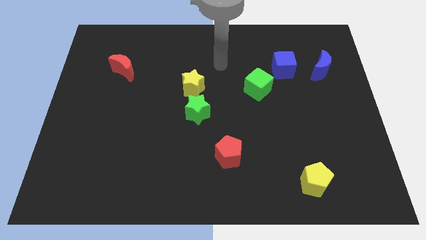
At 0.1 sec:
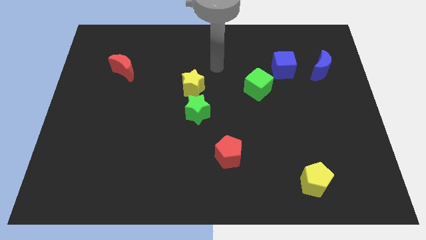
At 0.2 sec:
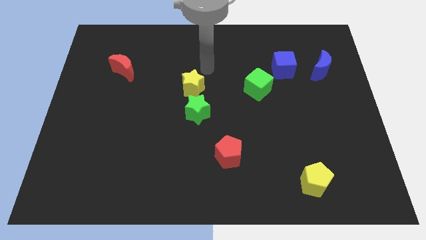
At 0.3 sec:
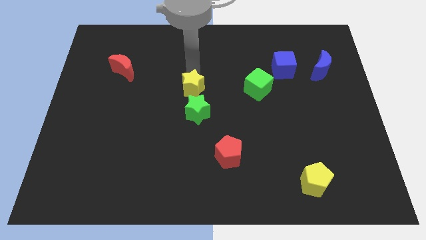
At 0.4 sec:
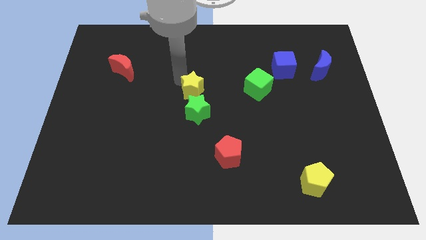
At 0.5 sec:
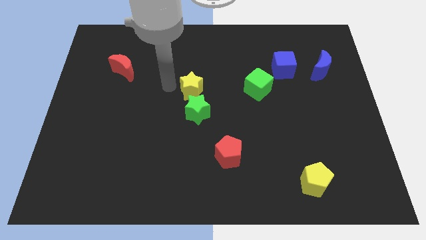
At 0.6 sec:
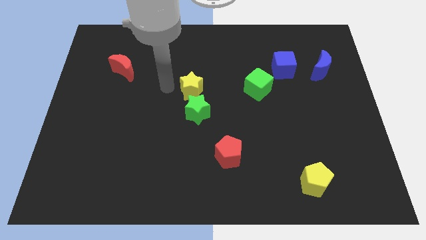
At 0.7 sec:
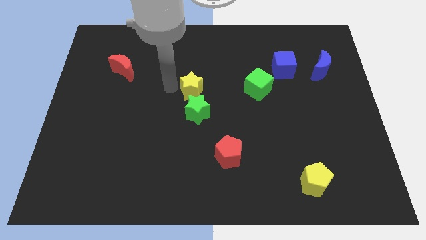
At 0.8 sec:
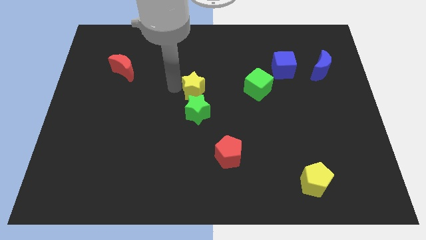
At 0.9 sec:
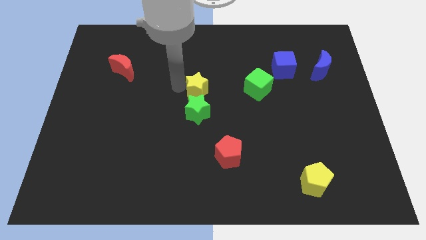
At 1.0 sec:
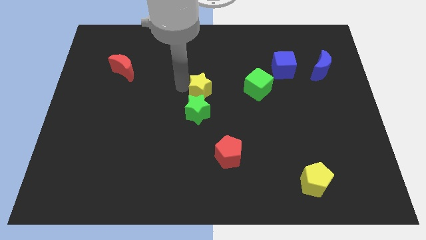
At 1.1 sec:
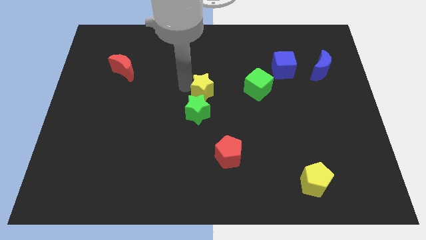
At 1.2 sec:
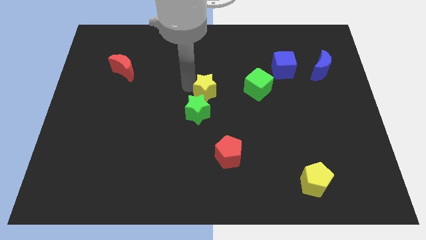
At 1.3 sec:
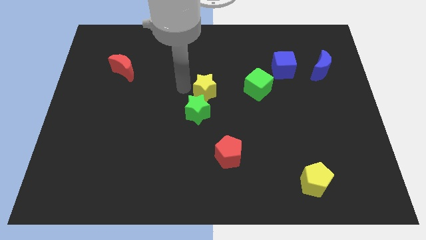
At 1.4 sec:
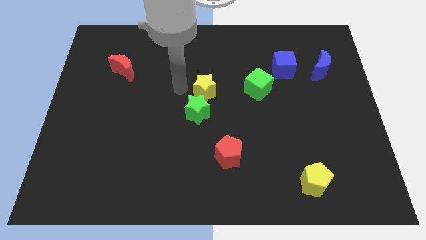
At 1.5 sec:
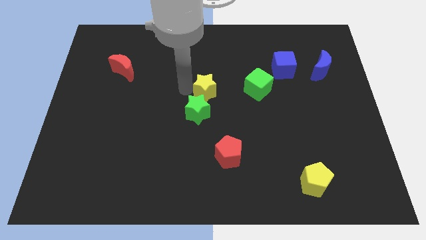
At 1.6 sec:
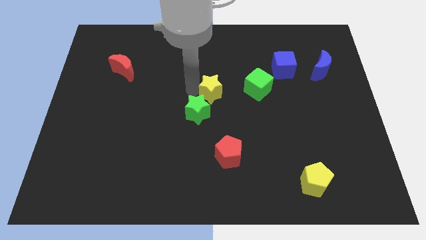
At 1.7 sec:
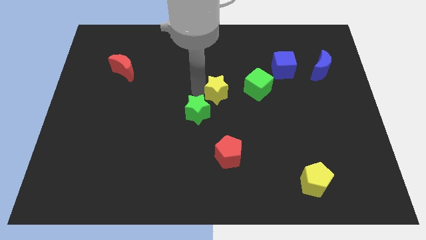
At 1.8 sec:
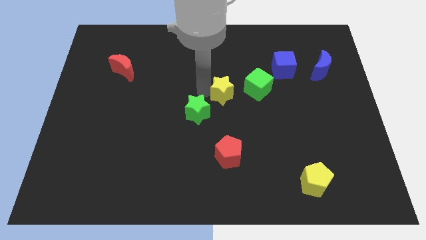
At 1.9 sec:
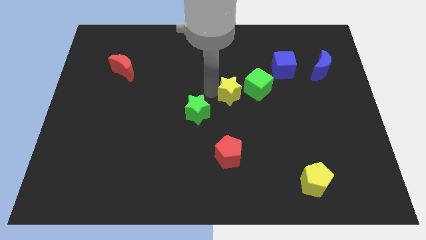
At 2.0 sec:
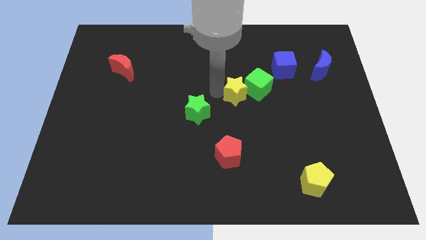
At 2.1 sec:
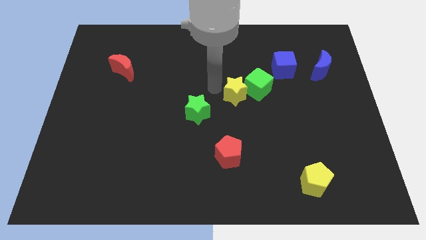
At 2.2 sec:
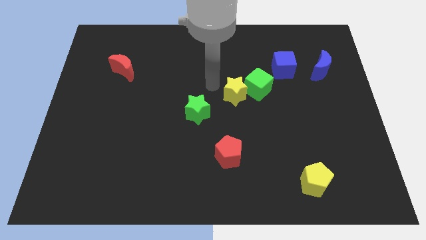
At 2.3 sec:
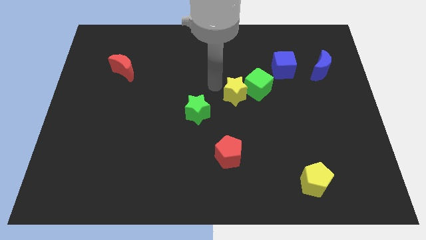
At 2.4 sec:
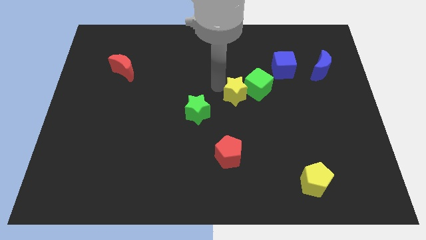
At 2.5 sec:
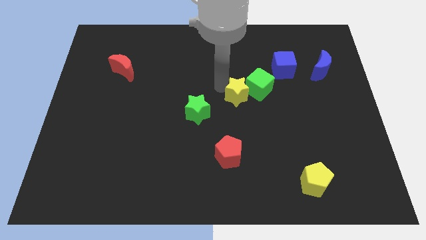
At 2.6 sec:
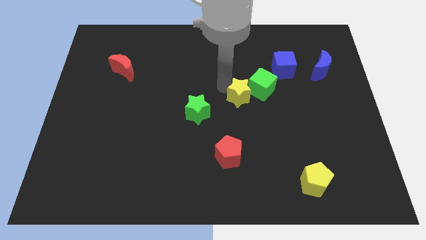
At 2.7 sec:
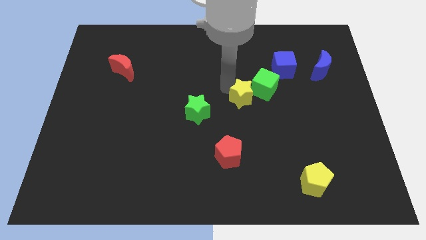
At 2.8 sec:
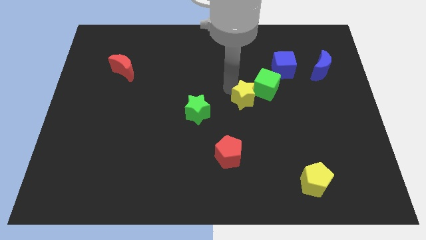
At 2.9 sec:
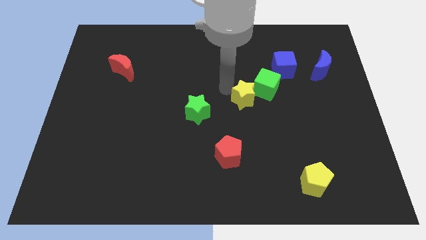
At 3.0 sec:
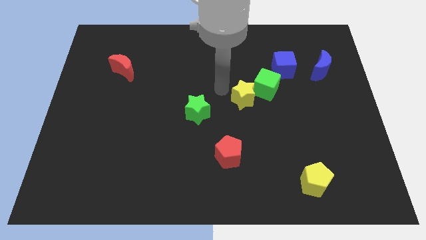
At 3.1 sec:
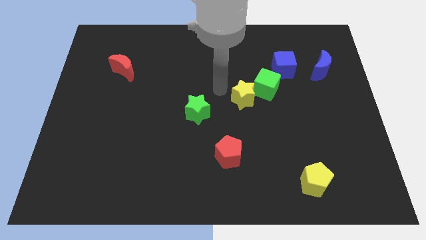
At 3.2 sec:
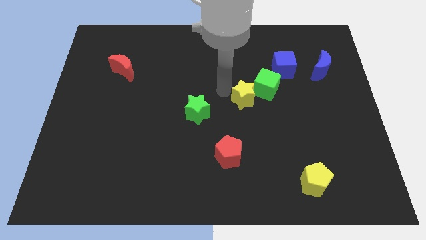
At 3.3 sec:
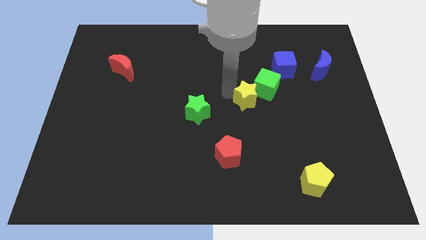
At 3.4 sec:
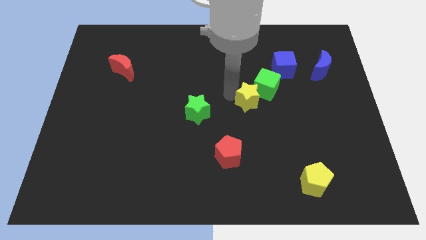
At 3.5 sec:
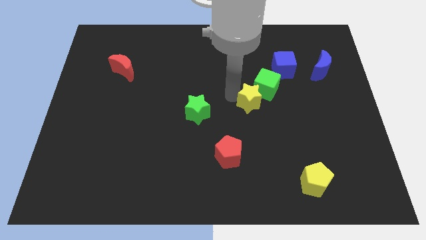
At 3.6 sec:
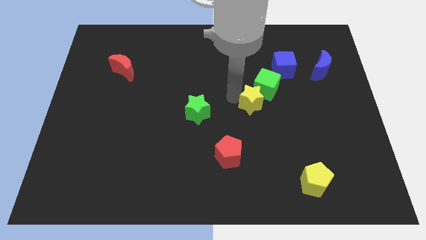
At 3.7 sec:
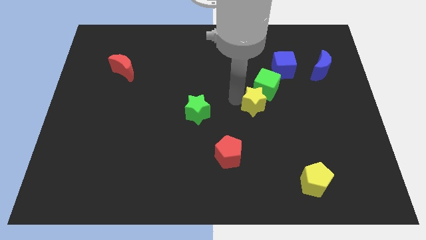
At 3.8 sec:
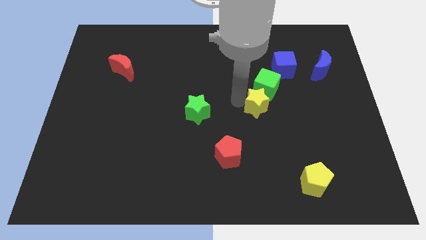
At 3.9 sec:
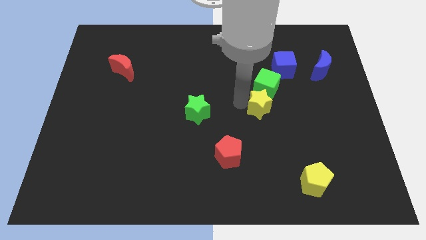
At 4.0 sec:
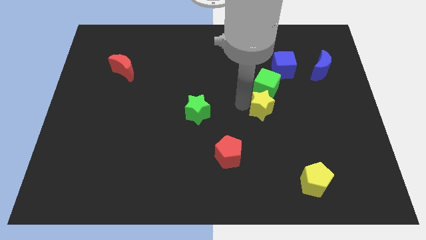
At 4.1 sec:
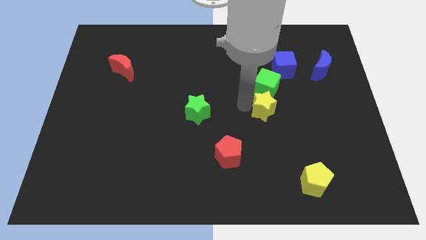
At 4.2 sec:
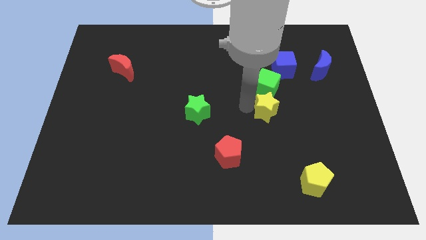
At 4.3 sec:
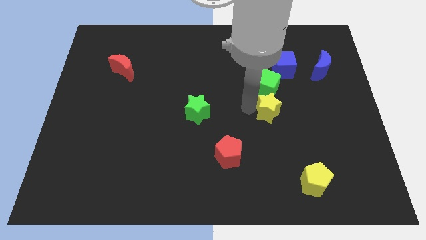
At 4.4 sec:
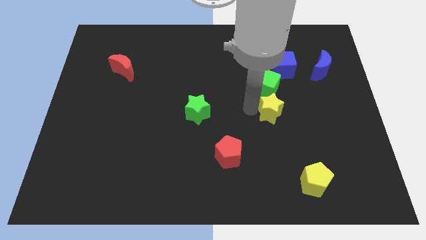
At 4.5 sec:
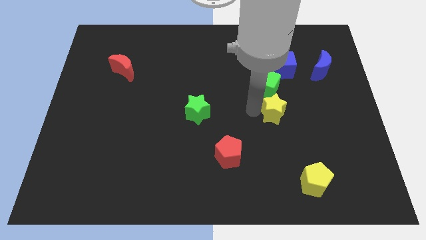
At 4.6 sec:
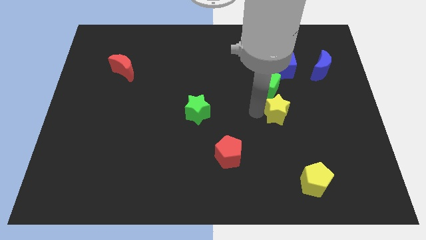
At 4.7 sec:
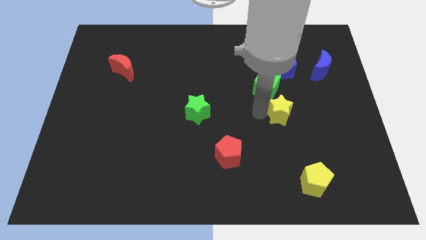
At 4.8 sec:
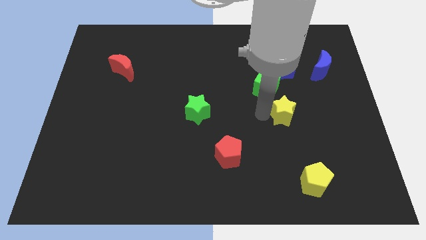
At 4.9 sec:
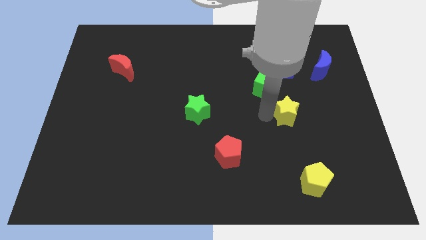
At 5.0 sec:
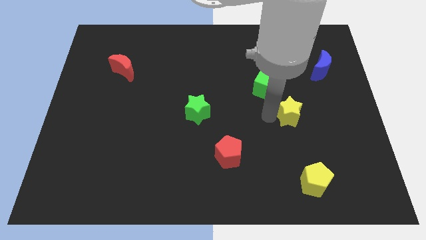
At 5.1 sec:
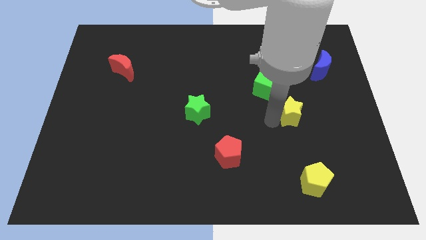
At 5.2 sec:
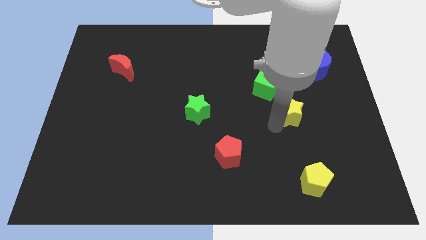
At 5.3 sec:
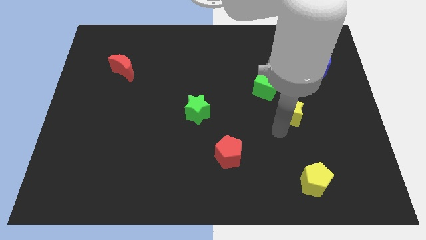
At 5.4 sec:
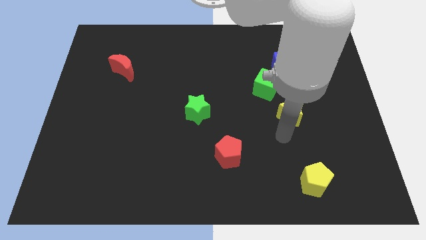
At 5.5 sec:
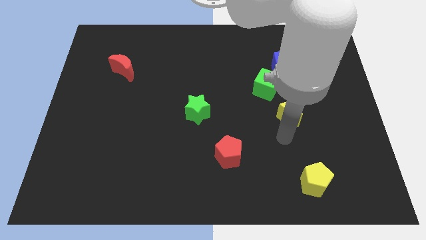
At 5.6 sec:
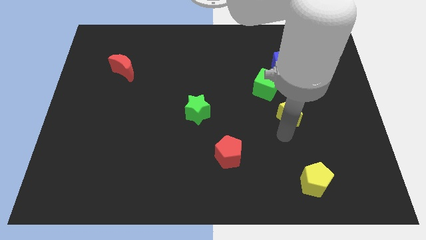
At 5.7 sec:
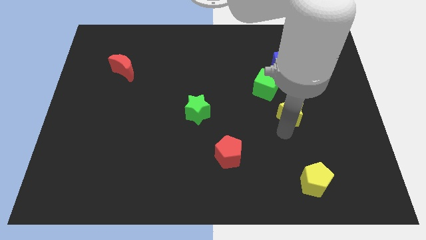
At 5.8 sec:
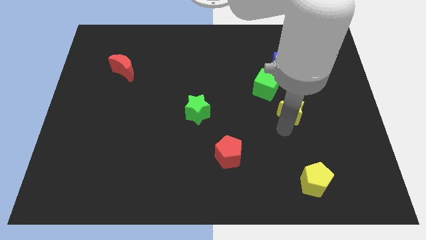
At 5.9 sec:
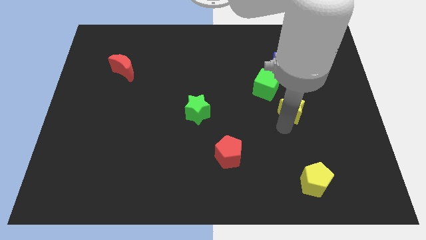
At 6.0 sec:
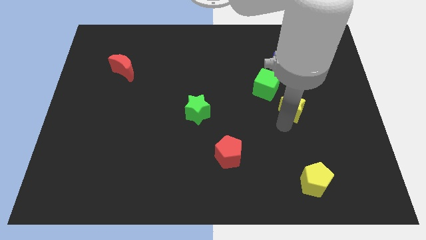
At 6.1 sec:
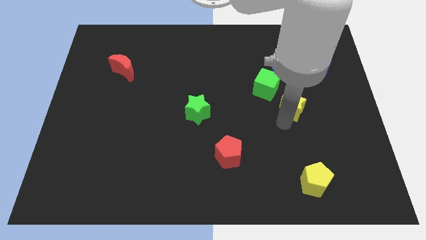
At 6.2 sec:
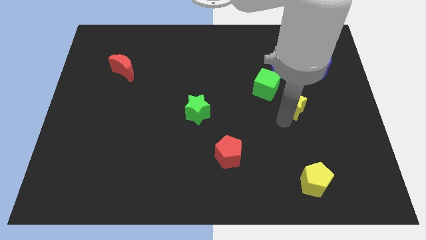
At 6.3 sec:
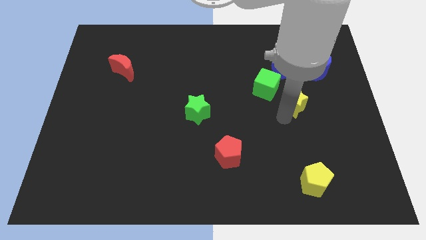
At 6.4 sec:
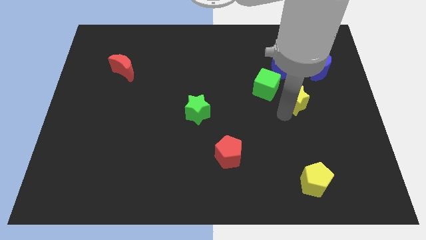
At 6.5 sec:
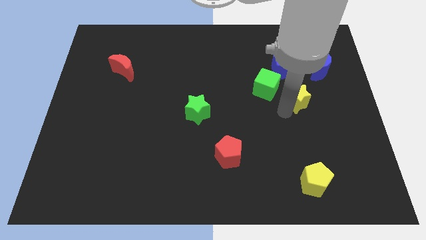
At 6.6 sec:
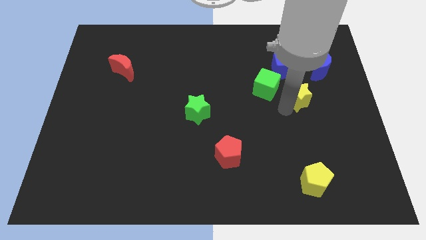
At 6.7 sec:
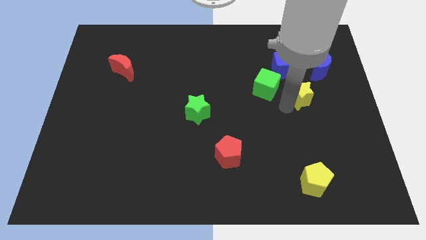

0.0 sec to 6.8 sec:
move the yellow star to the bottom right side of the blue cube
